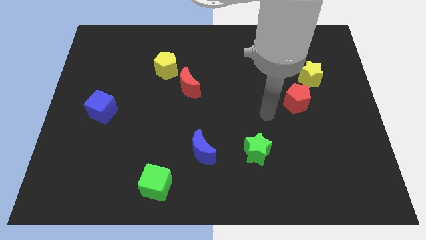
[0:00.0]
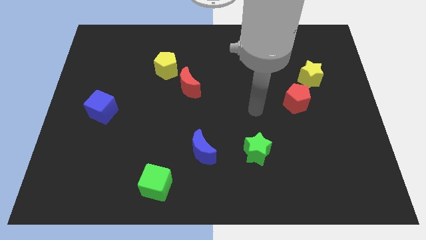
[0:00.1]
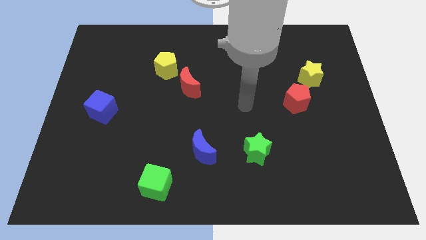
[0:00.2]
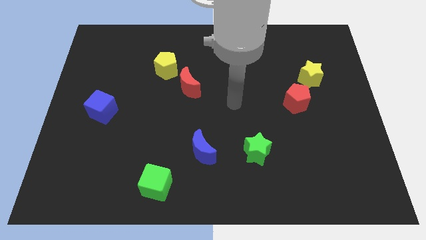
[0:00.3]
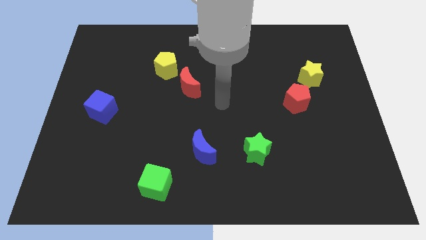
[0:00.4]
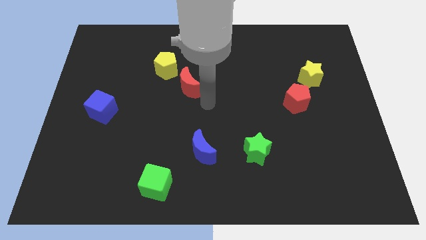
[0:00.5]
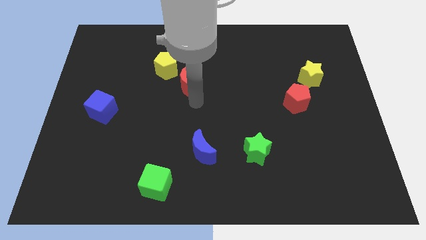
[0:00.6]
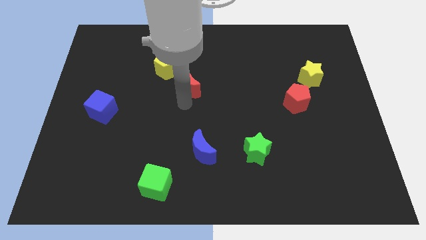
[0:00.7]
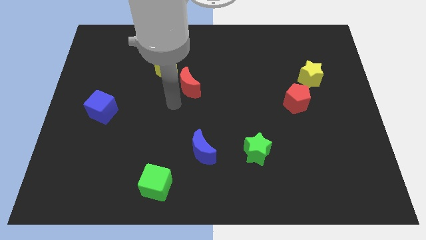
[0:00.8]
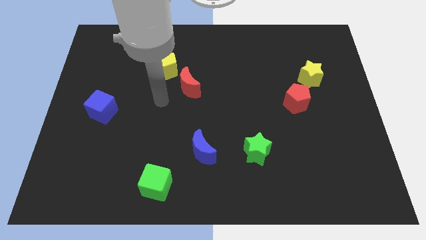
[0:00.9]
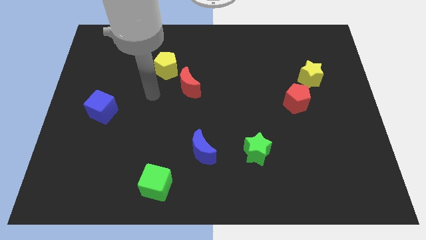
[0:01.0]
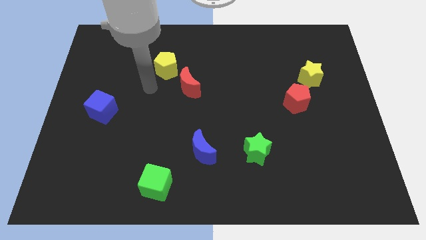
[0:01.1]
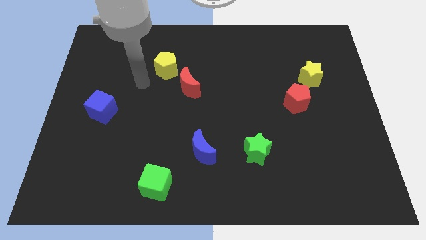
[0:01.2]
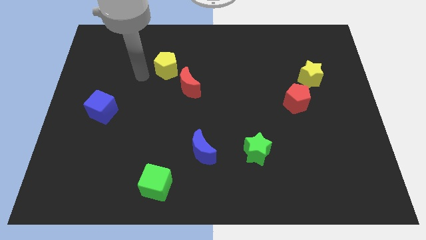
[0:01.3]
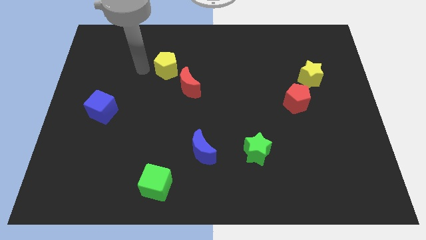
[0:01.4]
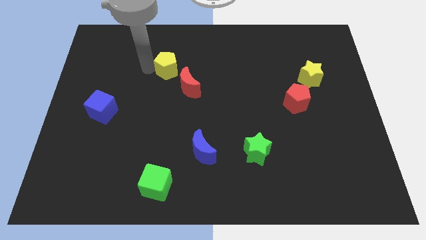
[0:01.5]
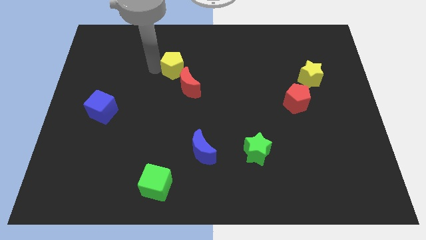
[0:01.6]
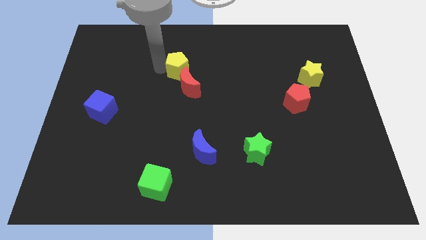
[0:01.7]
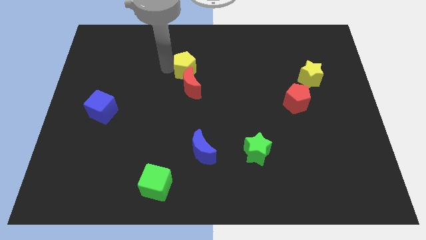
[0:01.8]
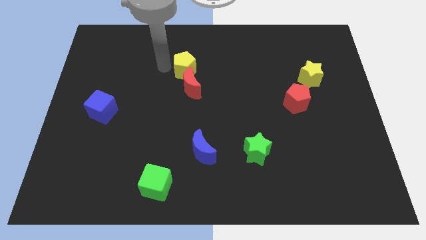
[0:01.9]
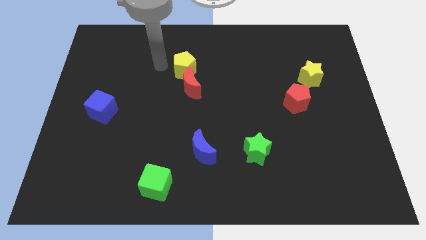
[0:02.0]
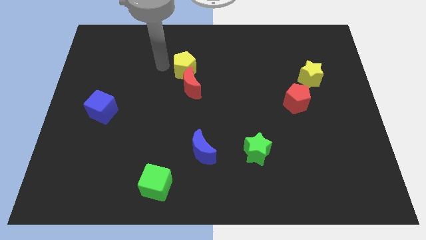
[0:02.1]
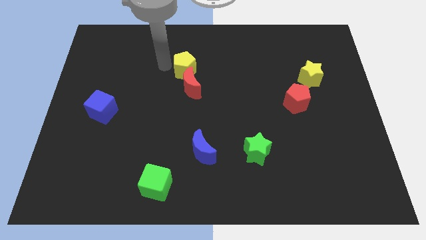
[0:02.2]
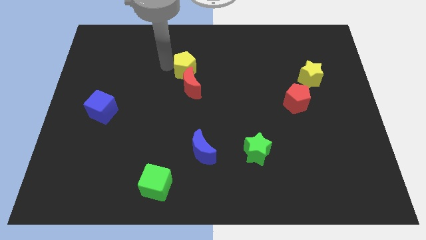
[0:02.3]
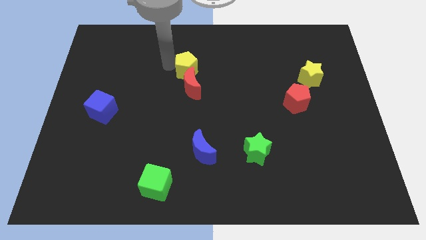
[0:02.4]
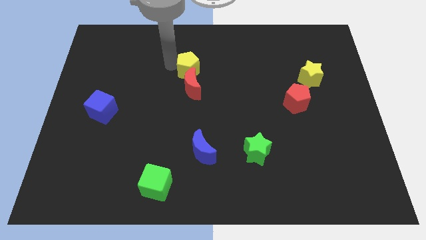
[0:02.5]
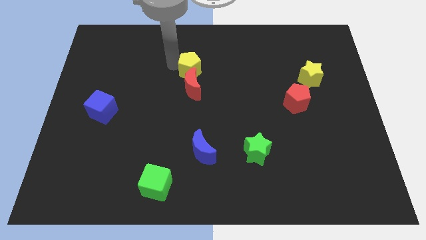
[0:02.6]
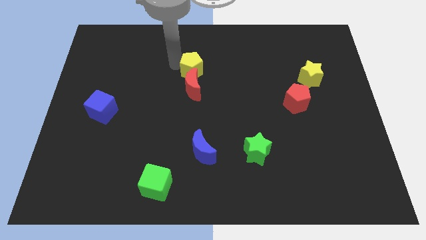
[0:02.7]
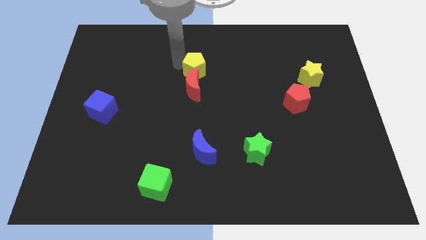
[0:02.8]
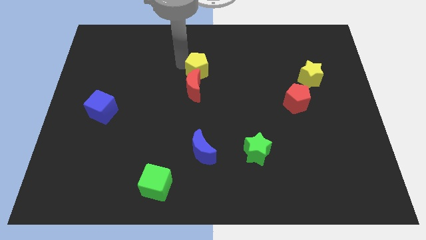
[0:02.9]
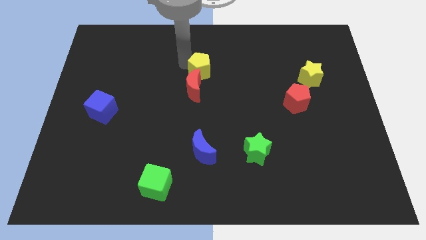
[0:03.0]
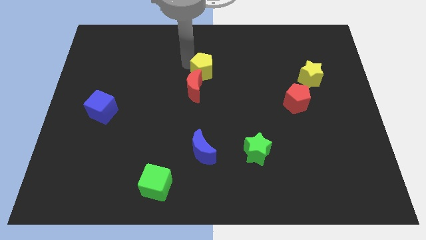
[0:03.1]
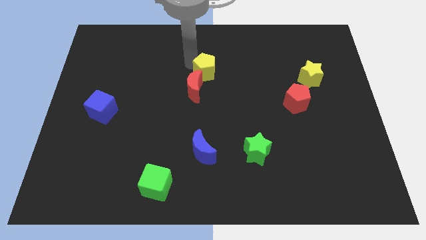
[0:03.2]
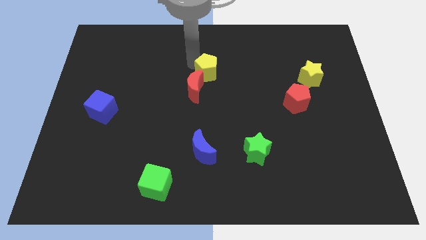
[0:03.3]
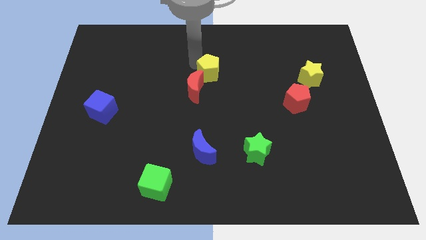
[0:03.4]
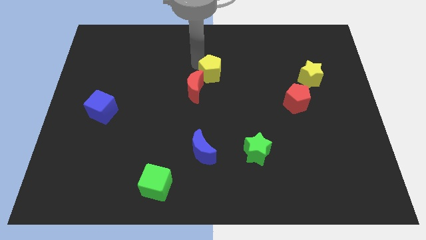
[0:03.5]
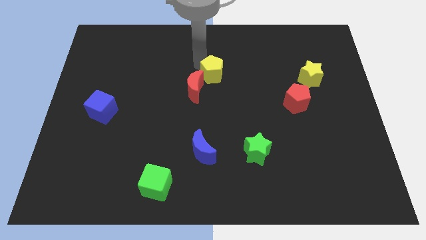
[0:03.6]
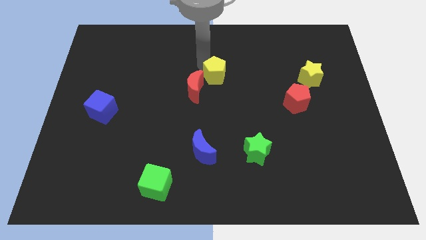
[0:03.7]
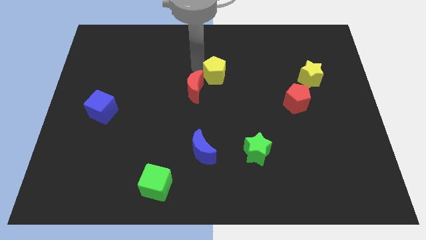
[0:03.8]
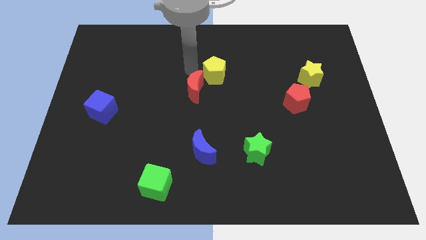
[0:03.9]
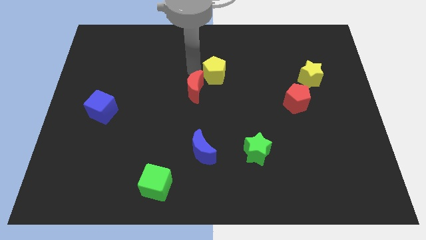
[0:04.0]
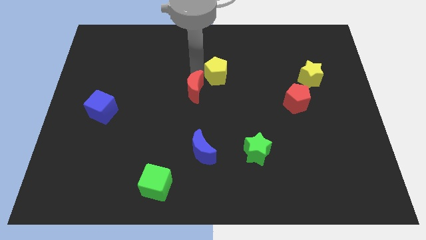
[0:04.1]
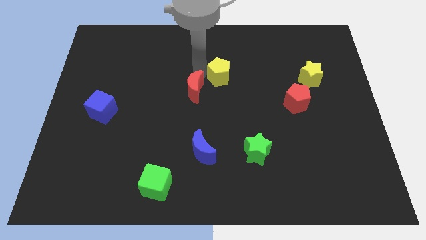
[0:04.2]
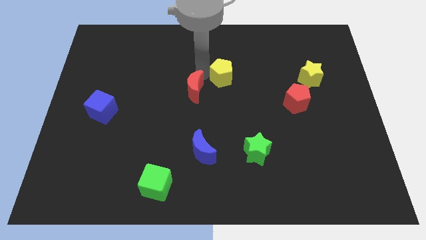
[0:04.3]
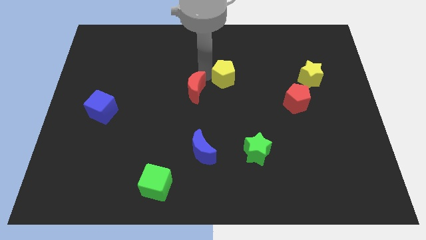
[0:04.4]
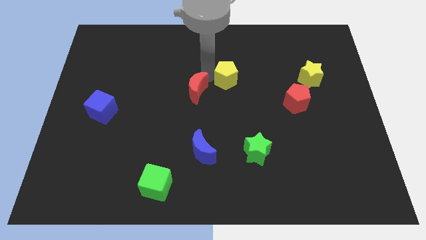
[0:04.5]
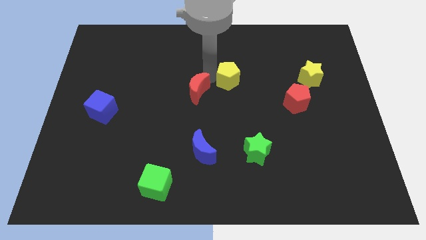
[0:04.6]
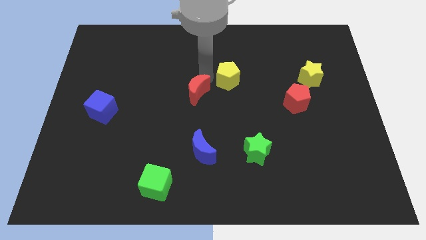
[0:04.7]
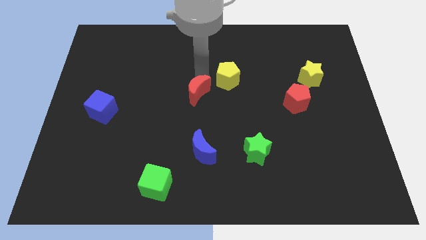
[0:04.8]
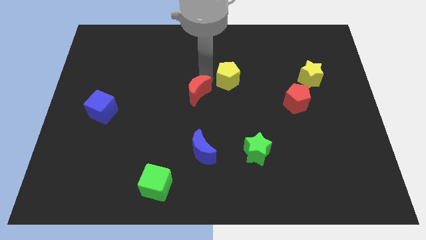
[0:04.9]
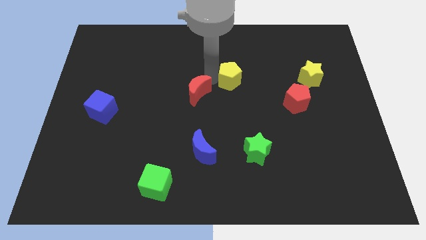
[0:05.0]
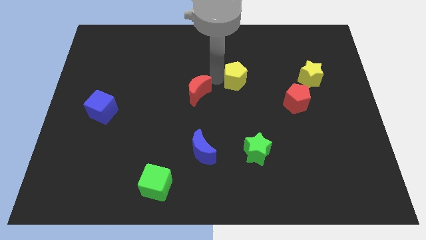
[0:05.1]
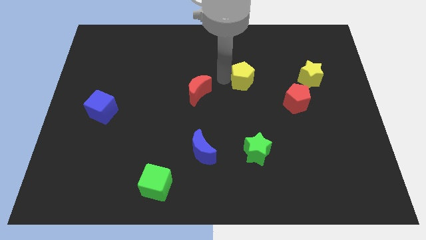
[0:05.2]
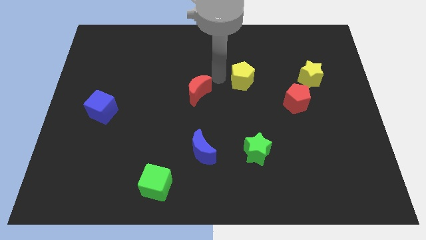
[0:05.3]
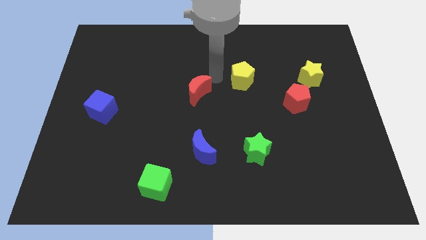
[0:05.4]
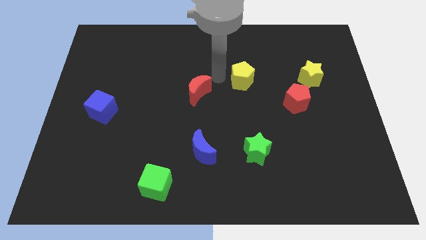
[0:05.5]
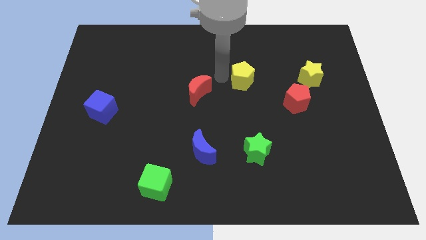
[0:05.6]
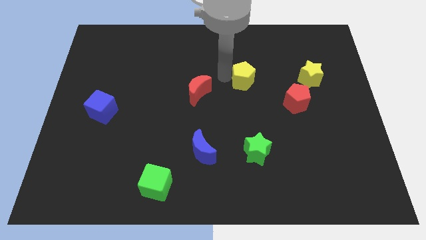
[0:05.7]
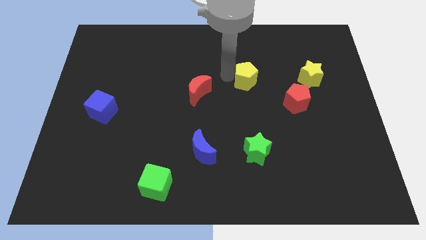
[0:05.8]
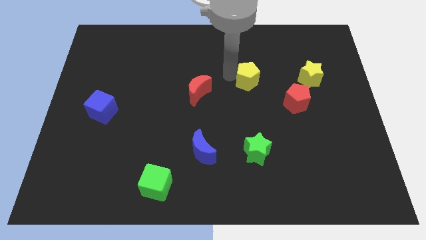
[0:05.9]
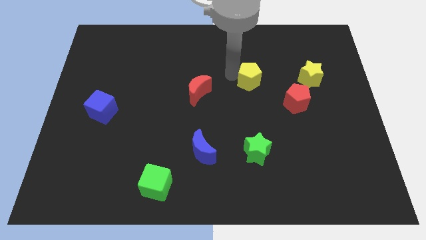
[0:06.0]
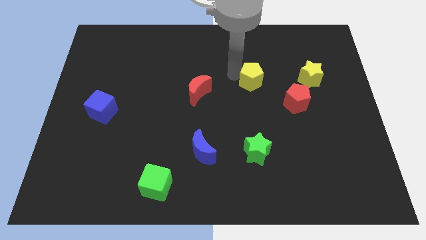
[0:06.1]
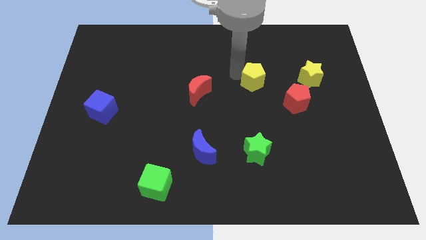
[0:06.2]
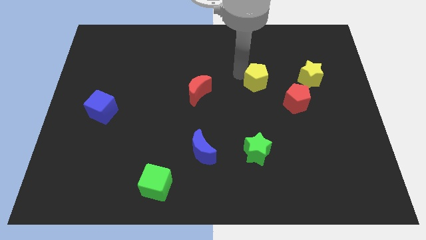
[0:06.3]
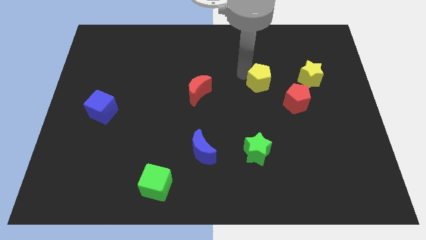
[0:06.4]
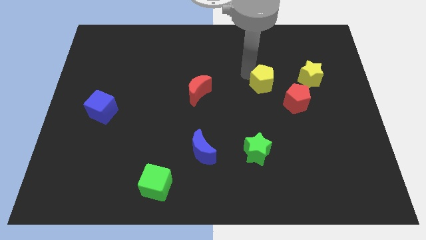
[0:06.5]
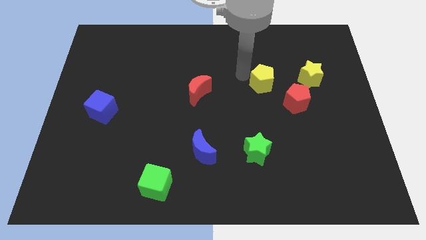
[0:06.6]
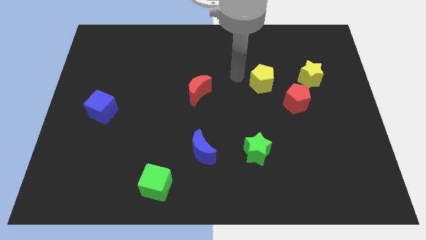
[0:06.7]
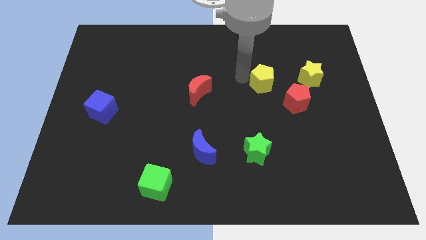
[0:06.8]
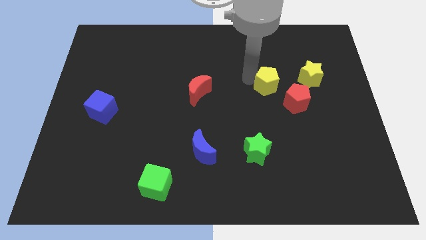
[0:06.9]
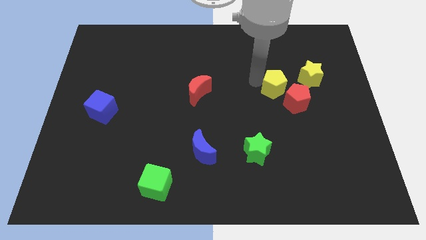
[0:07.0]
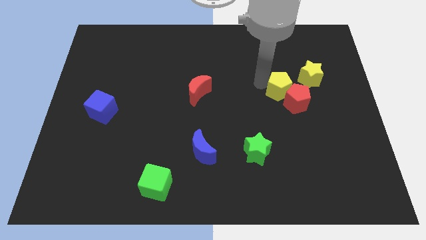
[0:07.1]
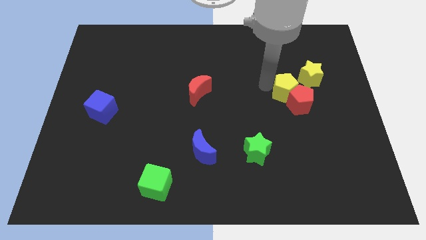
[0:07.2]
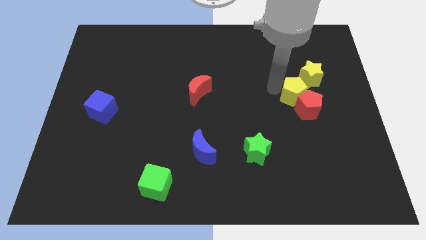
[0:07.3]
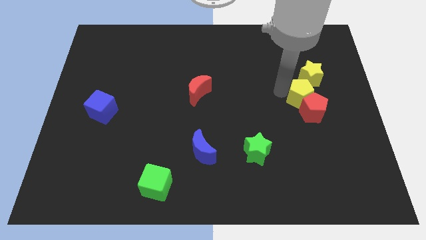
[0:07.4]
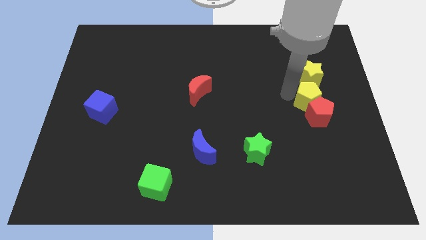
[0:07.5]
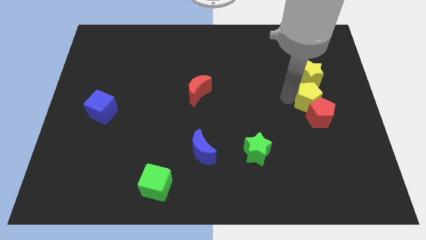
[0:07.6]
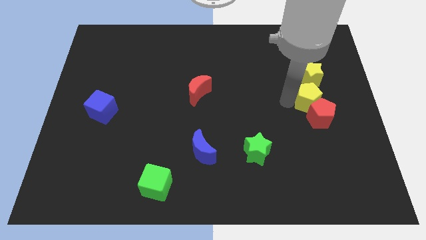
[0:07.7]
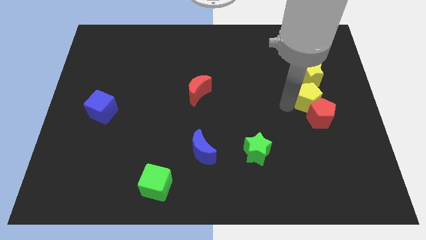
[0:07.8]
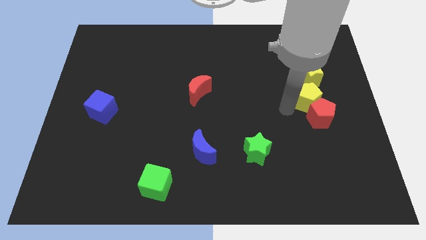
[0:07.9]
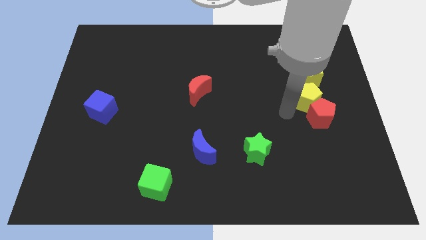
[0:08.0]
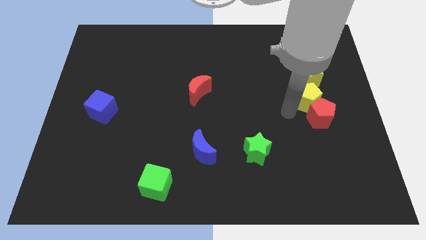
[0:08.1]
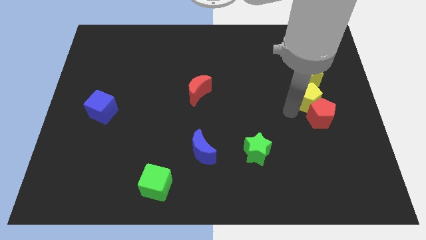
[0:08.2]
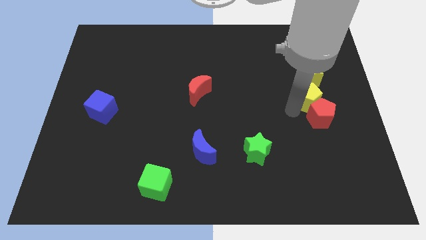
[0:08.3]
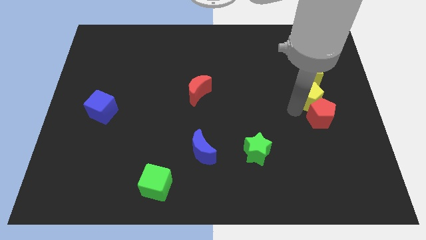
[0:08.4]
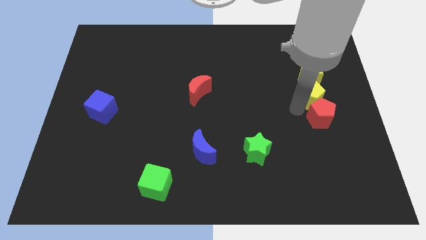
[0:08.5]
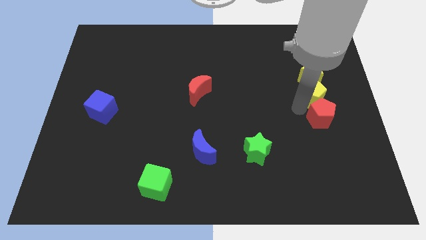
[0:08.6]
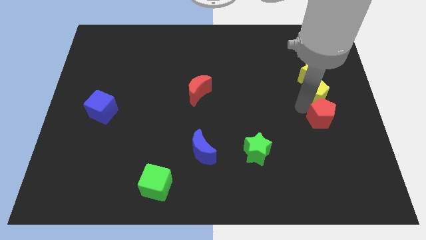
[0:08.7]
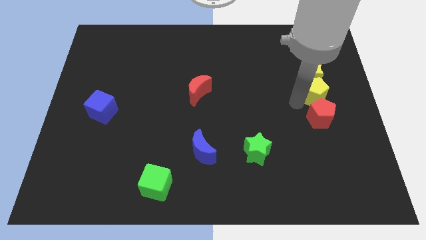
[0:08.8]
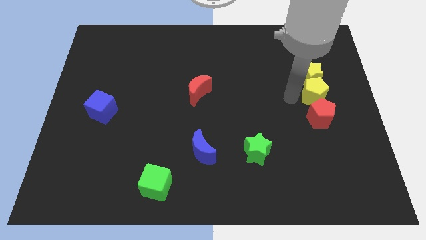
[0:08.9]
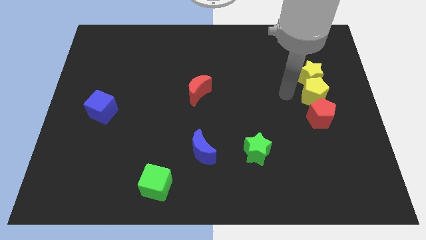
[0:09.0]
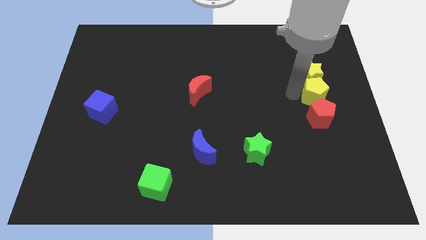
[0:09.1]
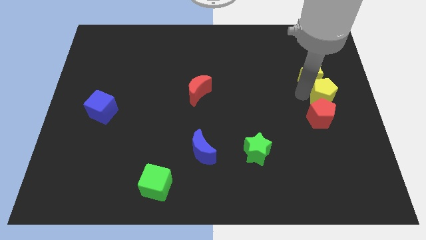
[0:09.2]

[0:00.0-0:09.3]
slide the yellow pentagon to the right side
